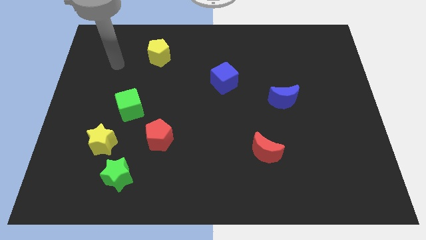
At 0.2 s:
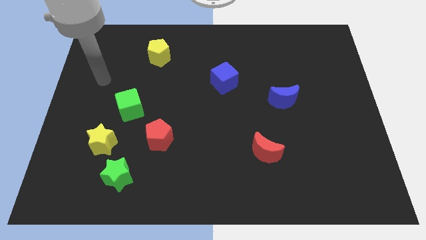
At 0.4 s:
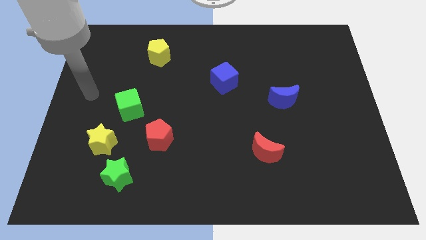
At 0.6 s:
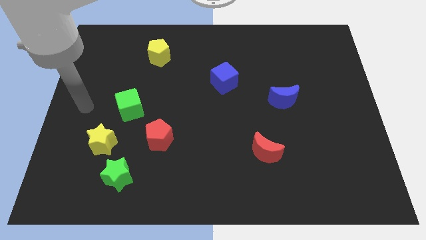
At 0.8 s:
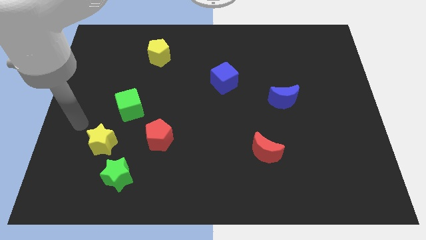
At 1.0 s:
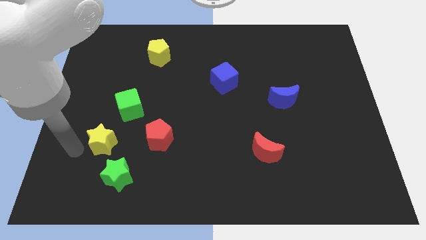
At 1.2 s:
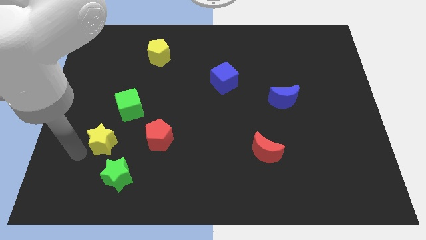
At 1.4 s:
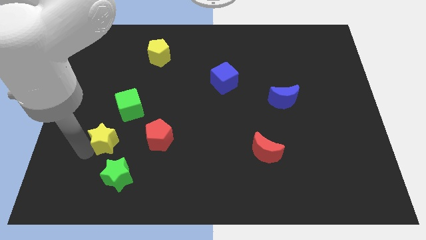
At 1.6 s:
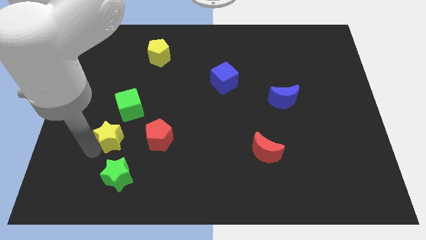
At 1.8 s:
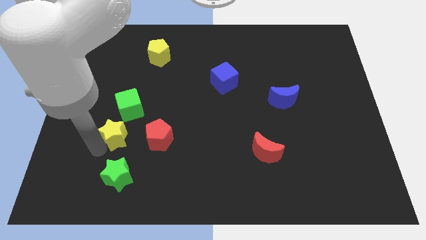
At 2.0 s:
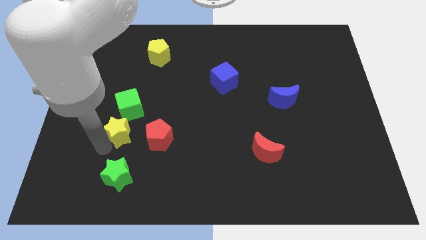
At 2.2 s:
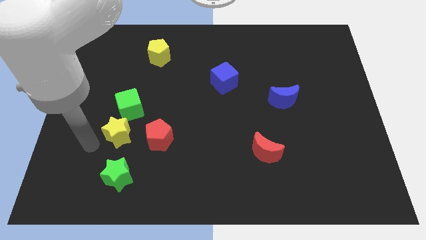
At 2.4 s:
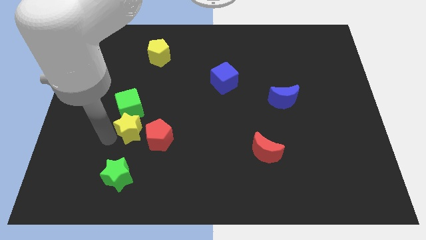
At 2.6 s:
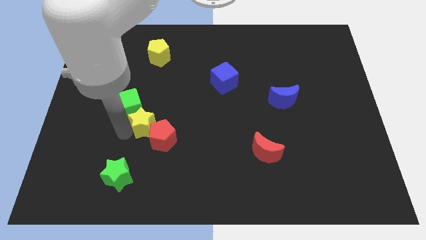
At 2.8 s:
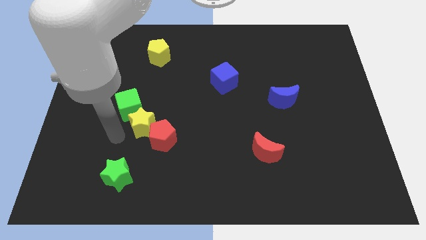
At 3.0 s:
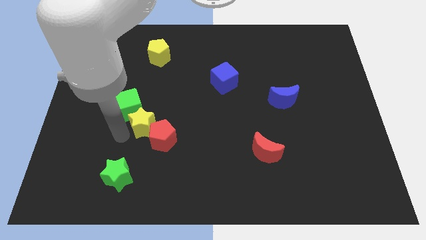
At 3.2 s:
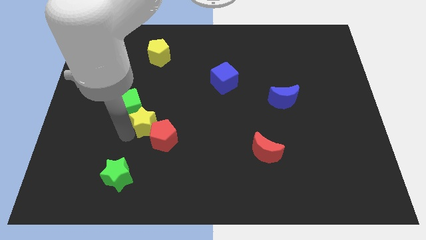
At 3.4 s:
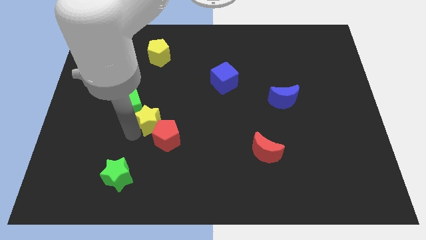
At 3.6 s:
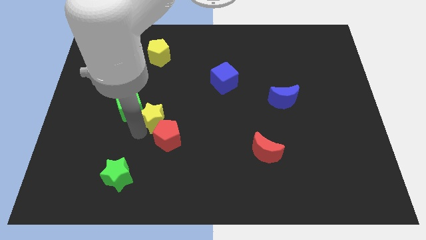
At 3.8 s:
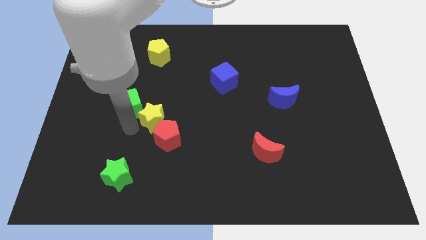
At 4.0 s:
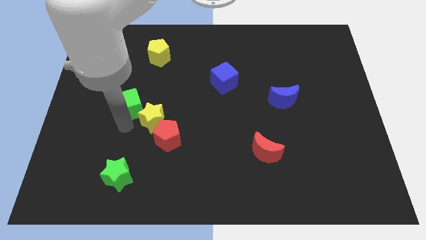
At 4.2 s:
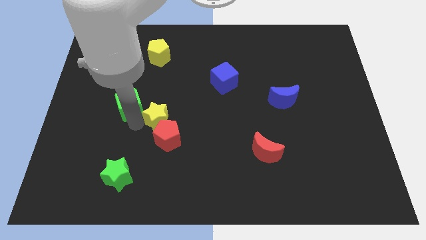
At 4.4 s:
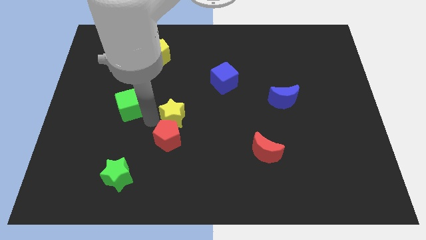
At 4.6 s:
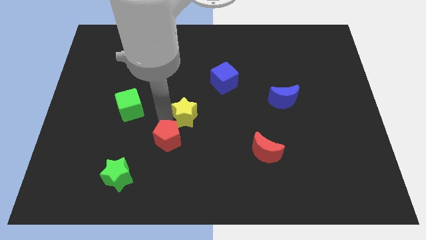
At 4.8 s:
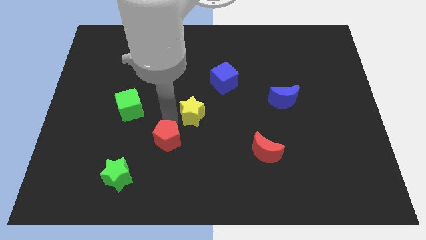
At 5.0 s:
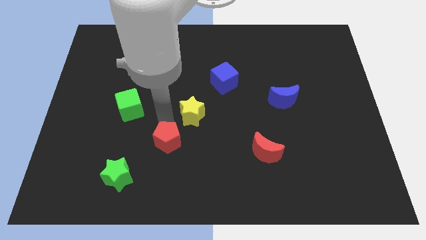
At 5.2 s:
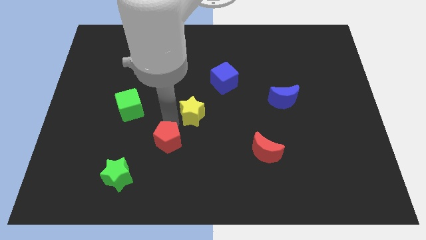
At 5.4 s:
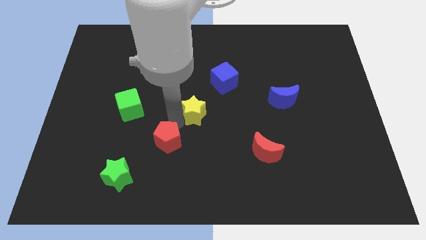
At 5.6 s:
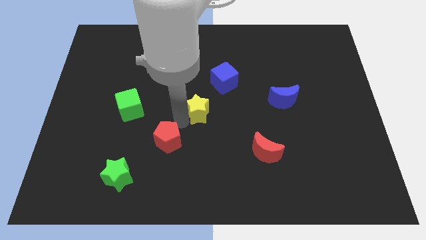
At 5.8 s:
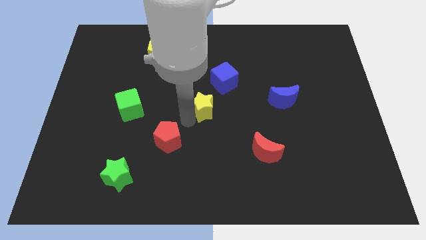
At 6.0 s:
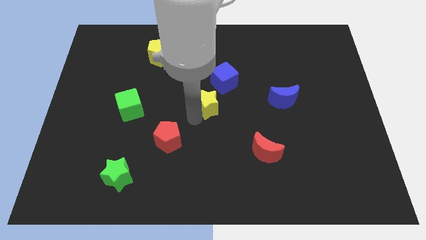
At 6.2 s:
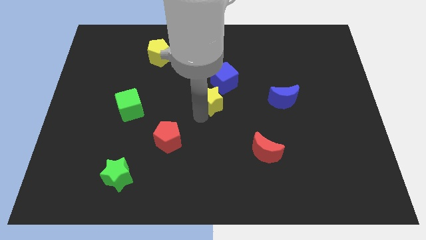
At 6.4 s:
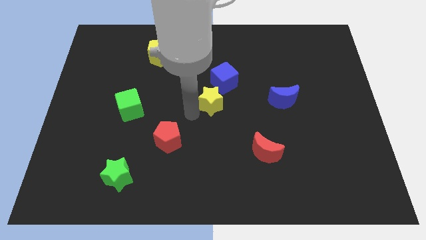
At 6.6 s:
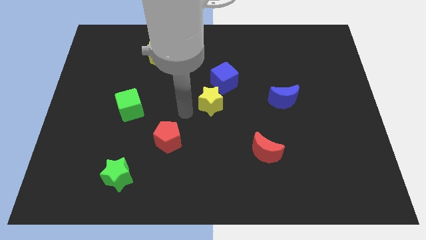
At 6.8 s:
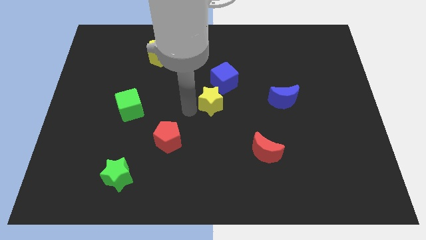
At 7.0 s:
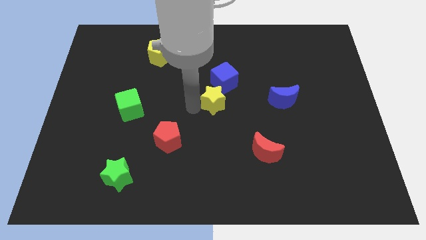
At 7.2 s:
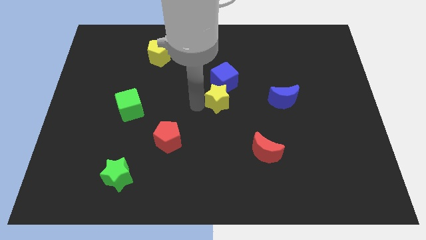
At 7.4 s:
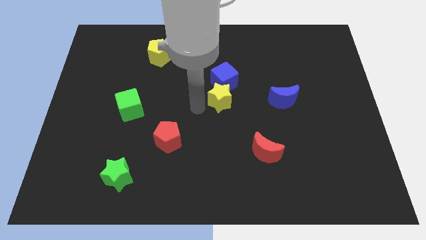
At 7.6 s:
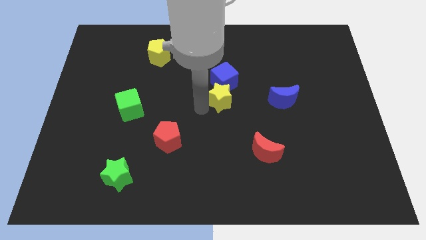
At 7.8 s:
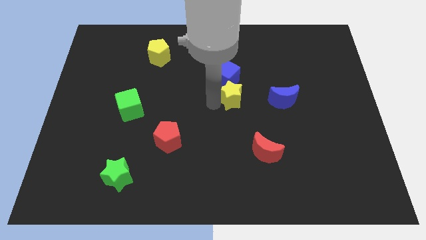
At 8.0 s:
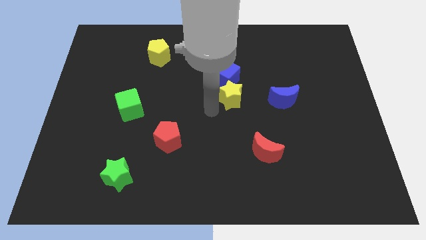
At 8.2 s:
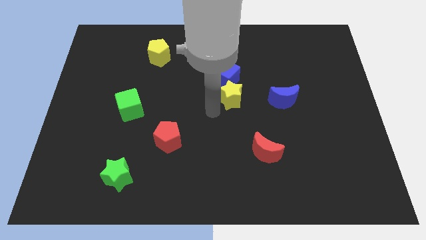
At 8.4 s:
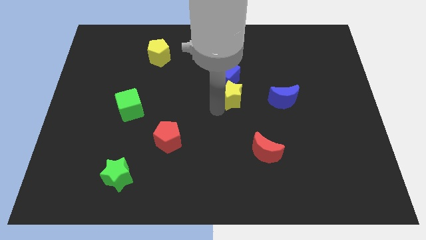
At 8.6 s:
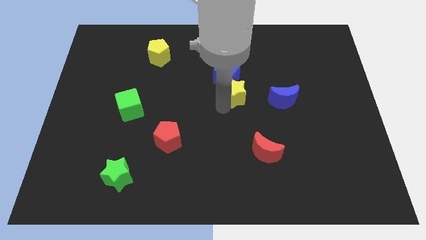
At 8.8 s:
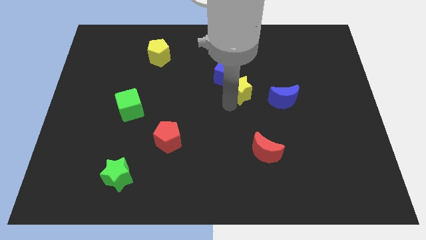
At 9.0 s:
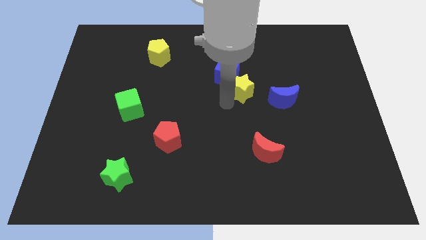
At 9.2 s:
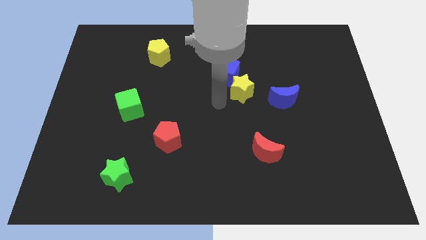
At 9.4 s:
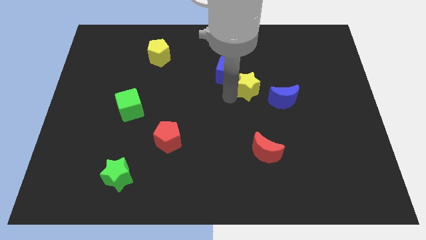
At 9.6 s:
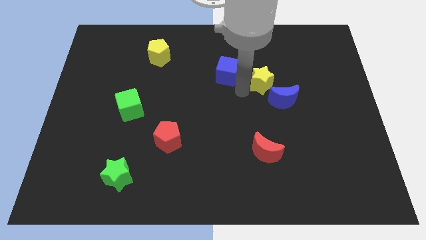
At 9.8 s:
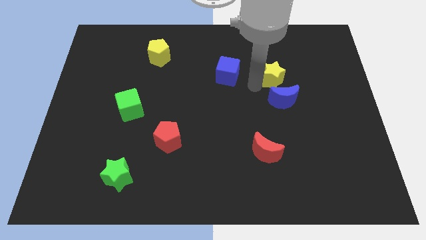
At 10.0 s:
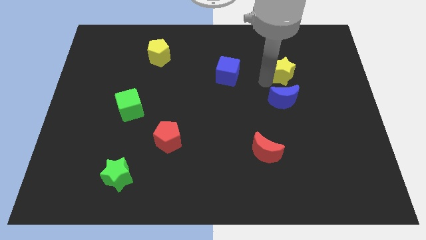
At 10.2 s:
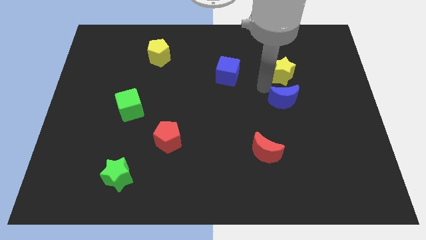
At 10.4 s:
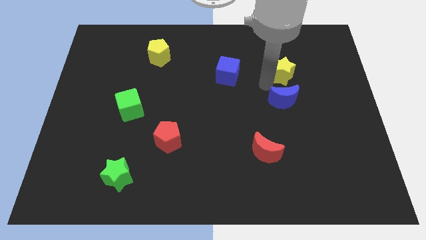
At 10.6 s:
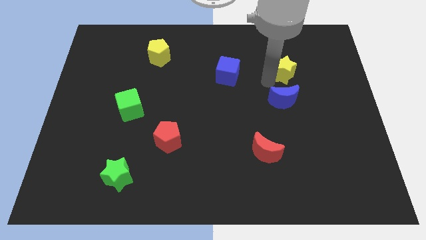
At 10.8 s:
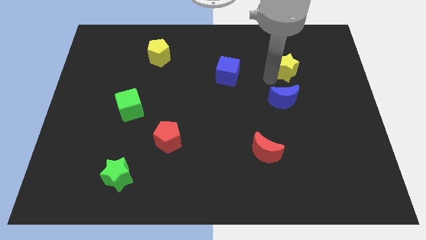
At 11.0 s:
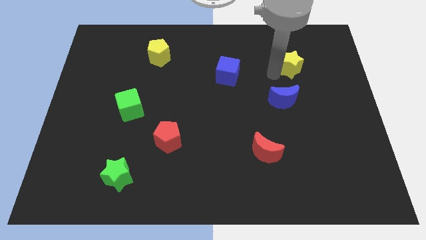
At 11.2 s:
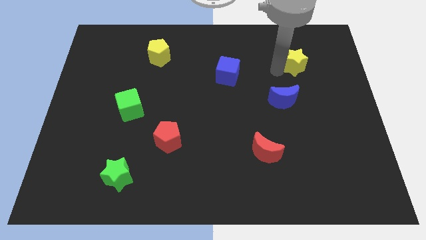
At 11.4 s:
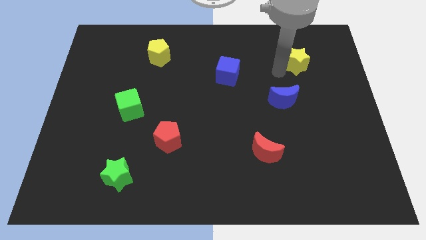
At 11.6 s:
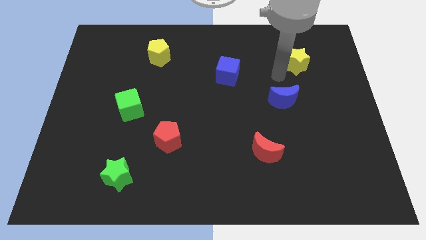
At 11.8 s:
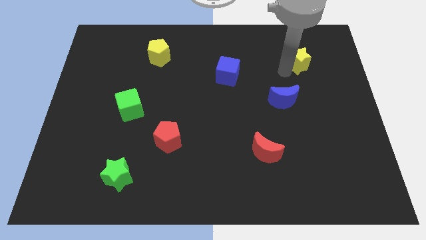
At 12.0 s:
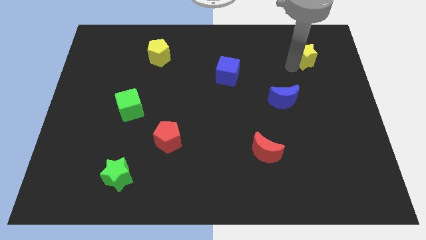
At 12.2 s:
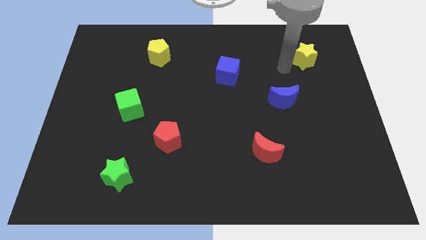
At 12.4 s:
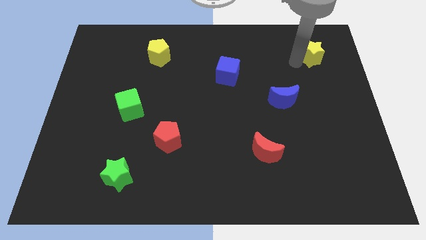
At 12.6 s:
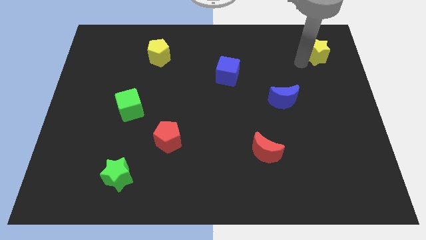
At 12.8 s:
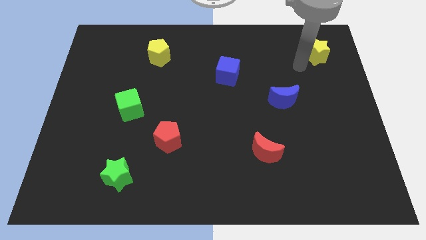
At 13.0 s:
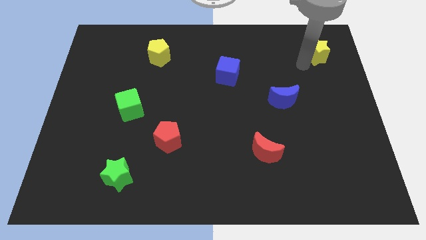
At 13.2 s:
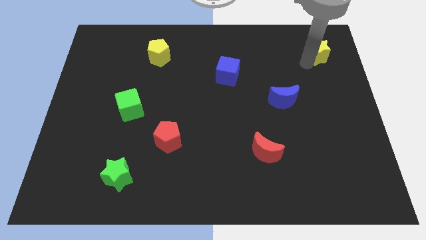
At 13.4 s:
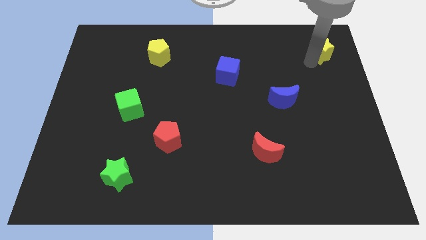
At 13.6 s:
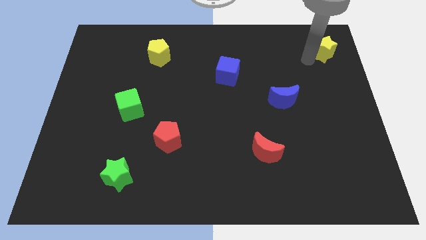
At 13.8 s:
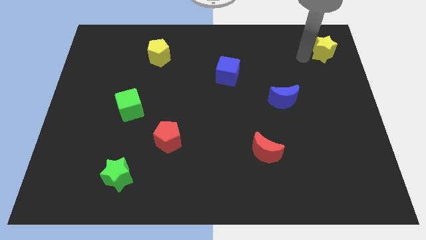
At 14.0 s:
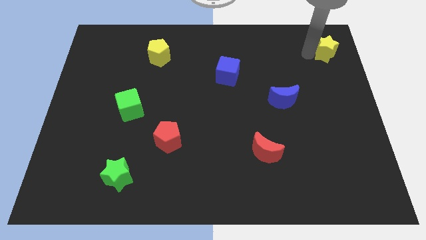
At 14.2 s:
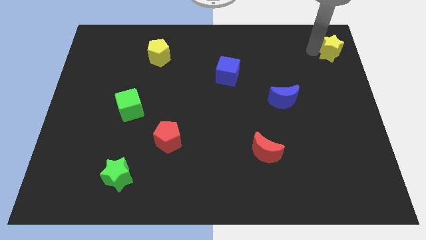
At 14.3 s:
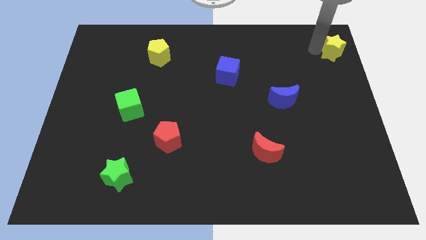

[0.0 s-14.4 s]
slide the yellow star to the upper right corner
